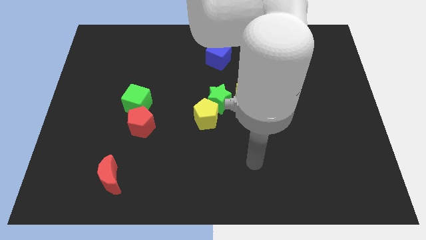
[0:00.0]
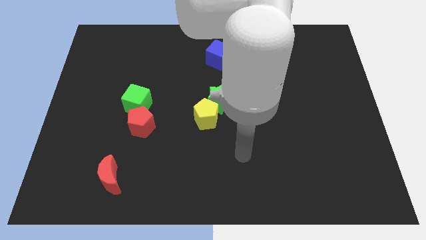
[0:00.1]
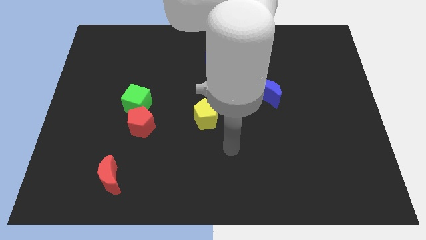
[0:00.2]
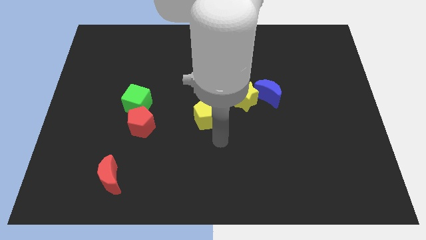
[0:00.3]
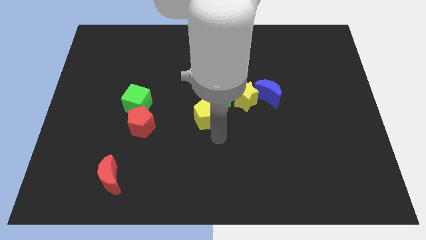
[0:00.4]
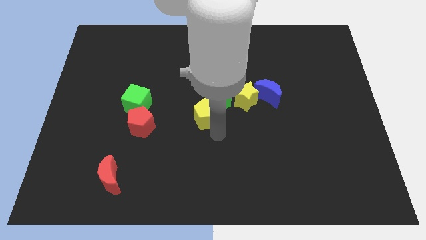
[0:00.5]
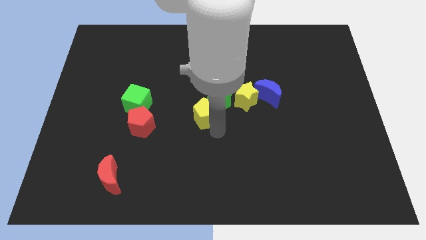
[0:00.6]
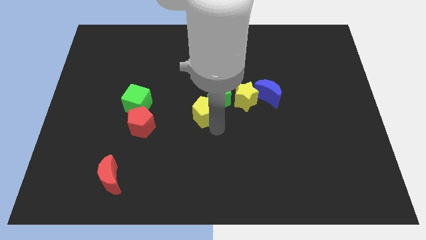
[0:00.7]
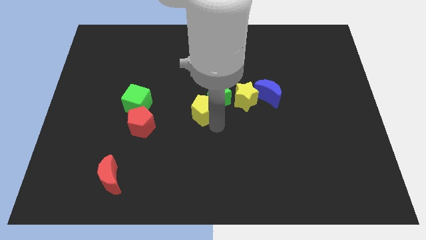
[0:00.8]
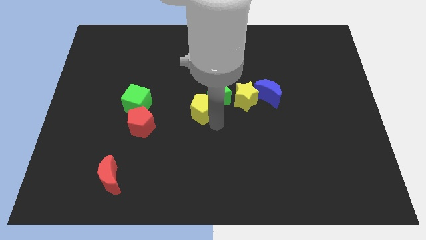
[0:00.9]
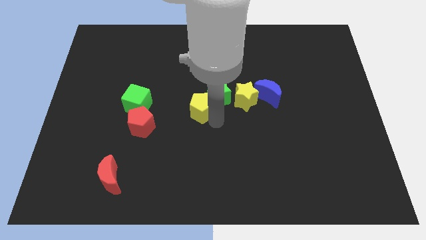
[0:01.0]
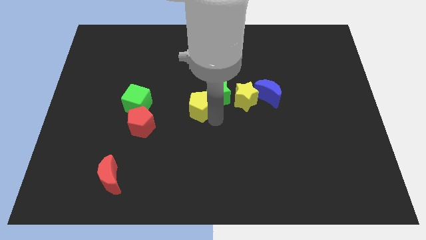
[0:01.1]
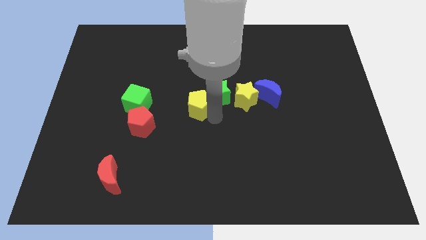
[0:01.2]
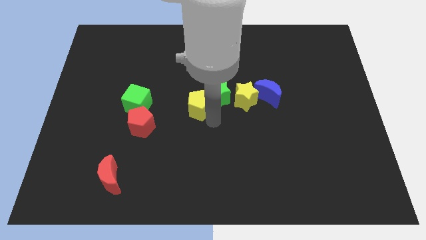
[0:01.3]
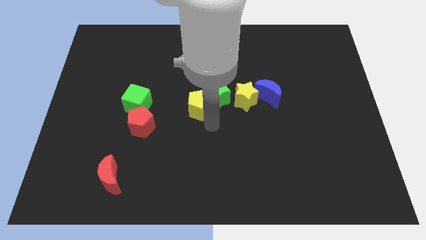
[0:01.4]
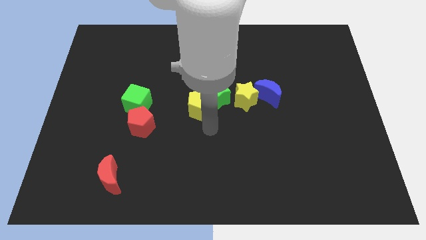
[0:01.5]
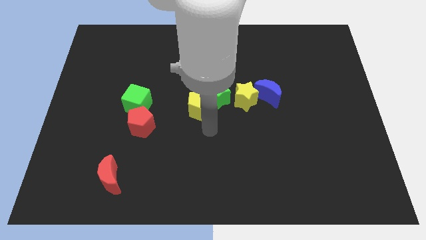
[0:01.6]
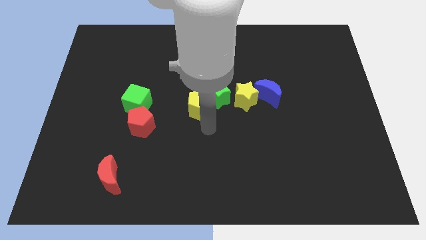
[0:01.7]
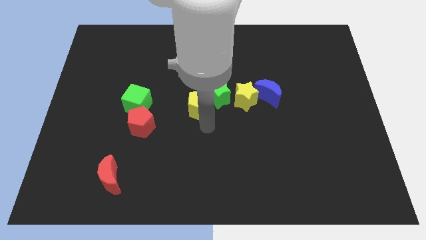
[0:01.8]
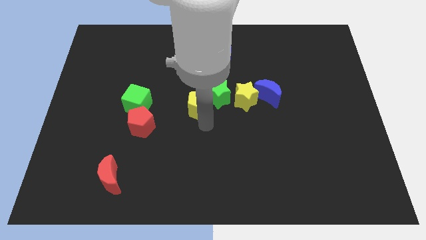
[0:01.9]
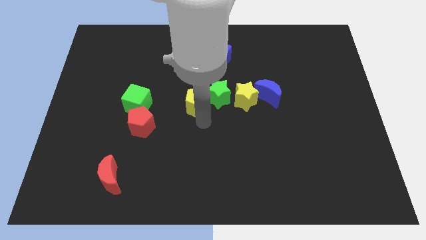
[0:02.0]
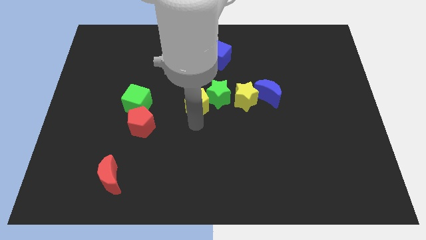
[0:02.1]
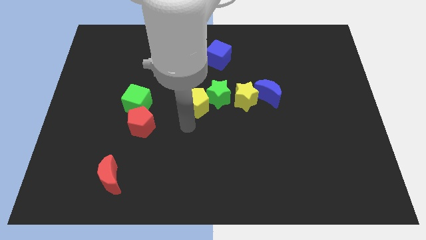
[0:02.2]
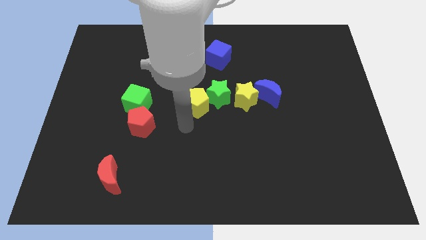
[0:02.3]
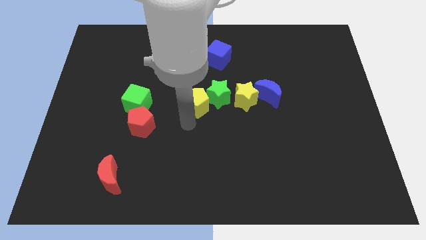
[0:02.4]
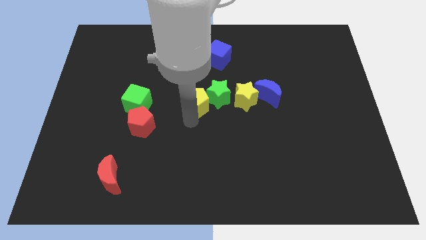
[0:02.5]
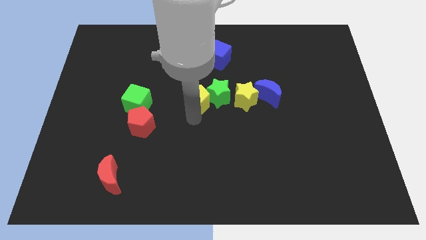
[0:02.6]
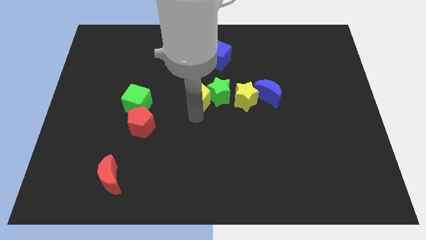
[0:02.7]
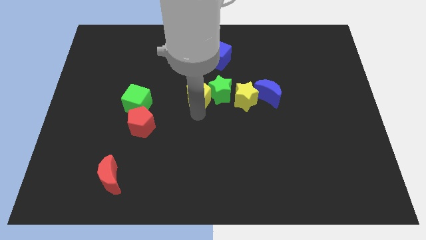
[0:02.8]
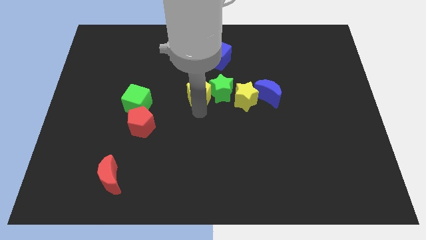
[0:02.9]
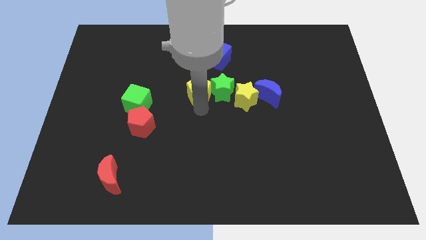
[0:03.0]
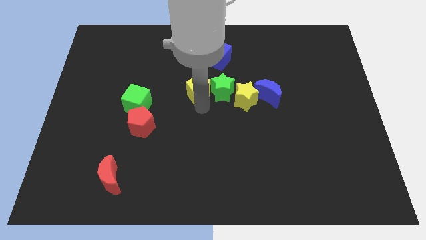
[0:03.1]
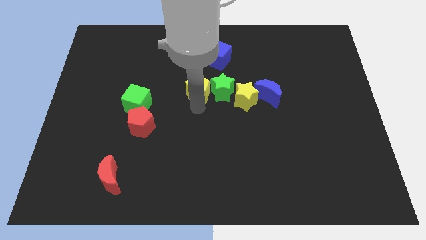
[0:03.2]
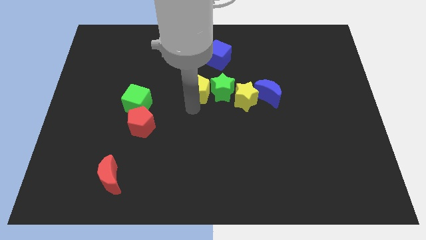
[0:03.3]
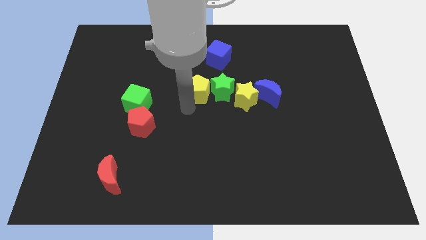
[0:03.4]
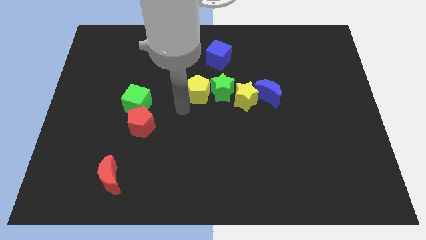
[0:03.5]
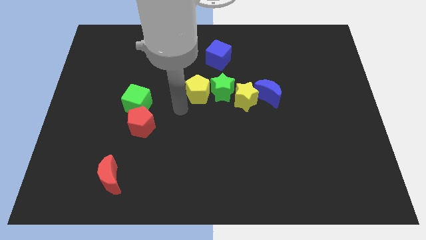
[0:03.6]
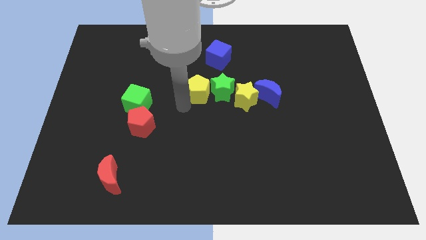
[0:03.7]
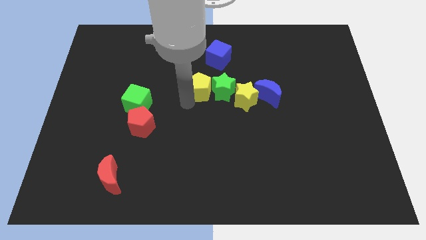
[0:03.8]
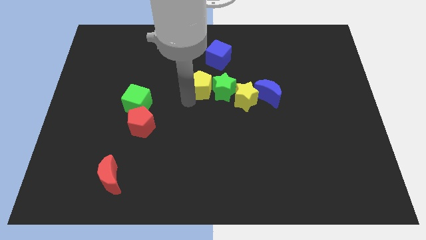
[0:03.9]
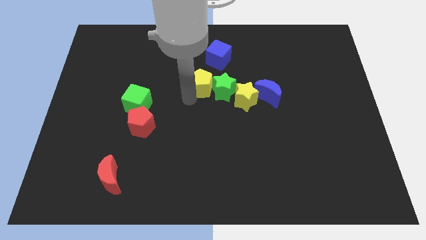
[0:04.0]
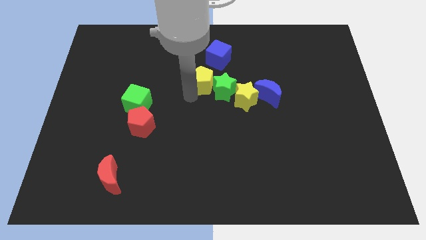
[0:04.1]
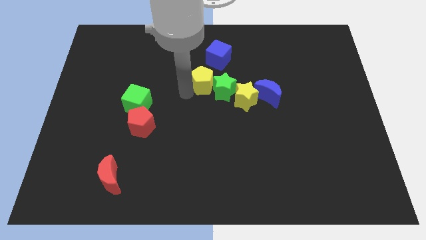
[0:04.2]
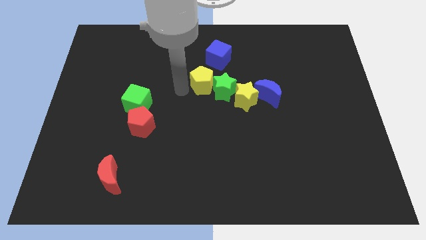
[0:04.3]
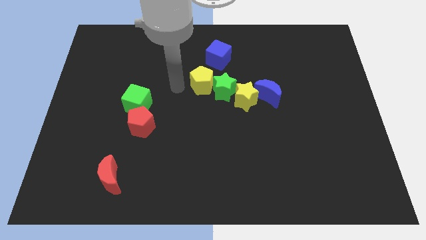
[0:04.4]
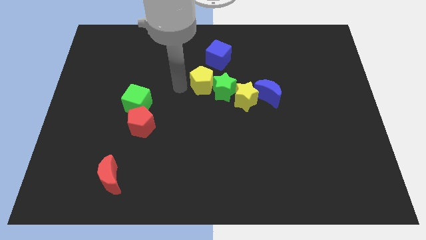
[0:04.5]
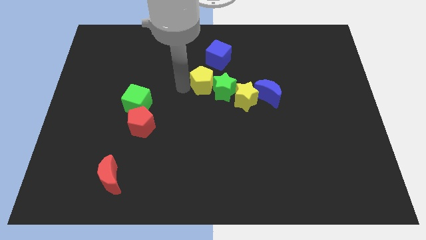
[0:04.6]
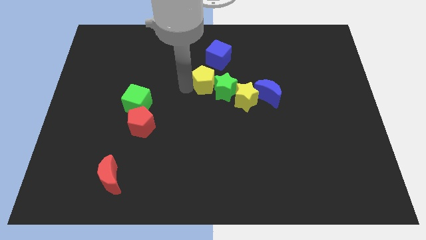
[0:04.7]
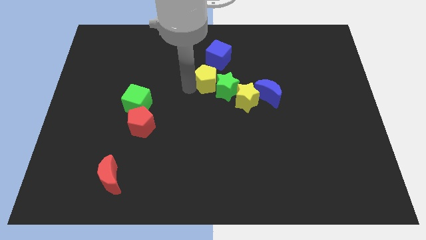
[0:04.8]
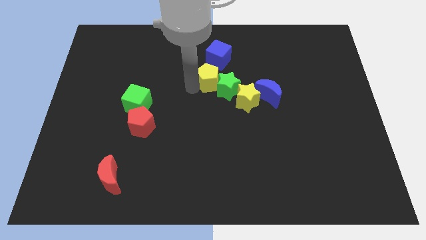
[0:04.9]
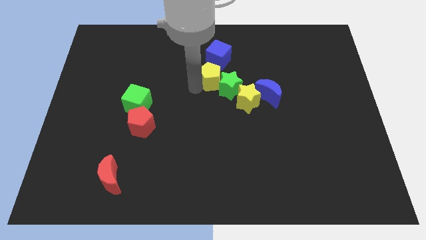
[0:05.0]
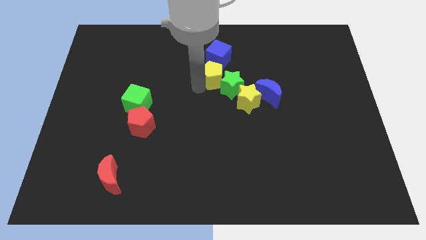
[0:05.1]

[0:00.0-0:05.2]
move the yellow pentagon up and to the right diagonally slightly

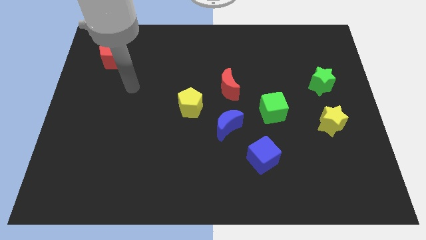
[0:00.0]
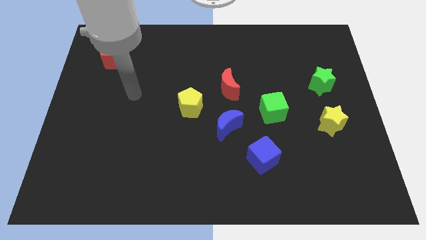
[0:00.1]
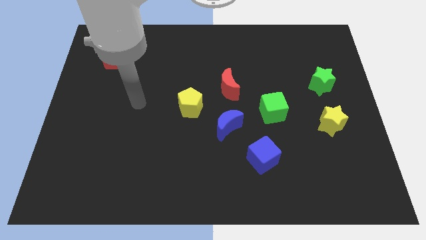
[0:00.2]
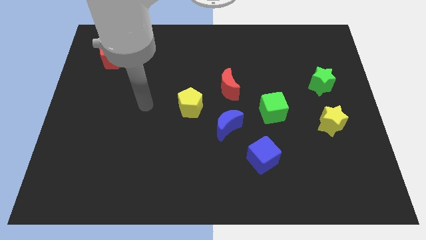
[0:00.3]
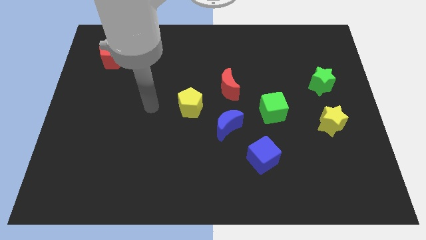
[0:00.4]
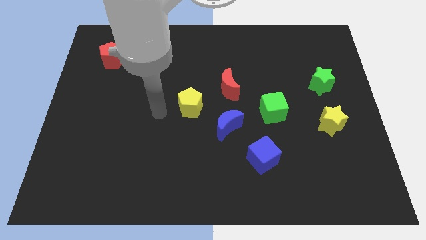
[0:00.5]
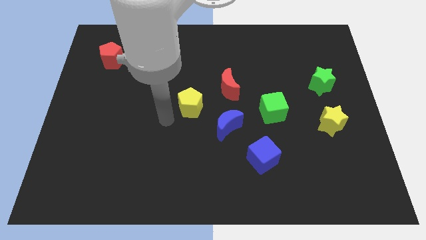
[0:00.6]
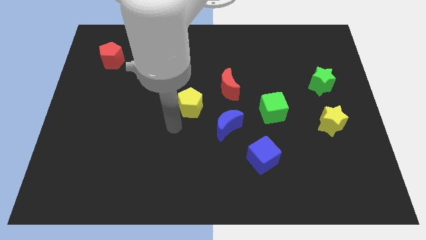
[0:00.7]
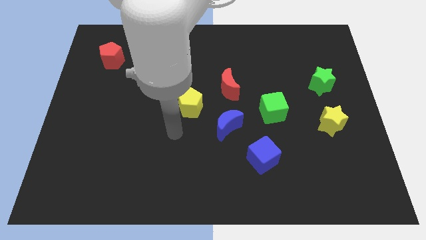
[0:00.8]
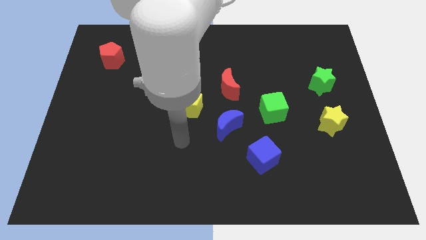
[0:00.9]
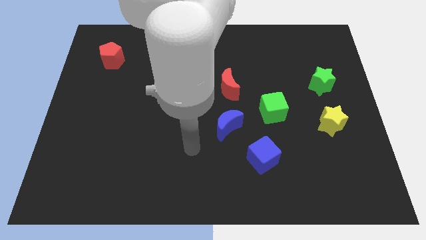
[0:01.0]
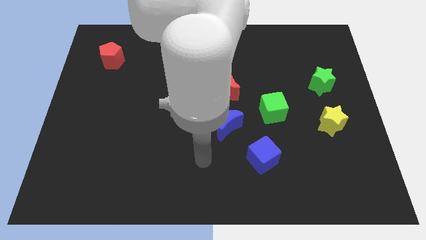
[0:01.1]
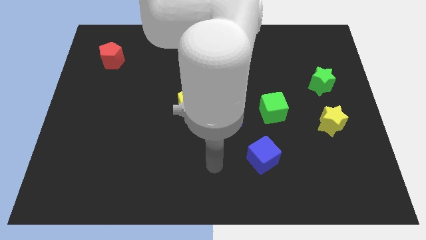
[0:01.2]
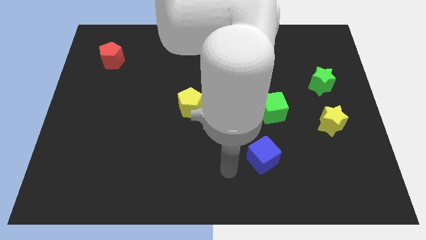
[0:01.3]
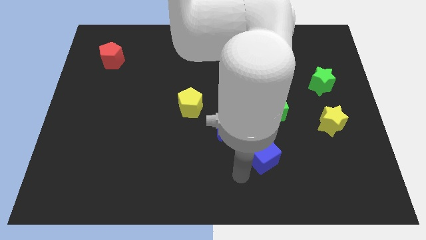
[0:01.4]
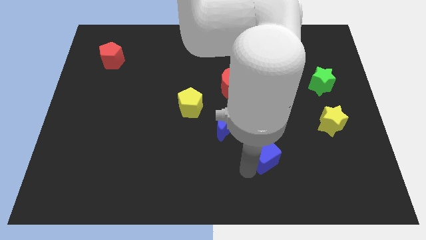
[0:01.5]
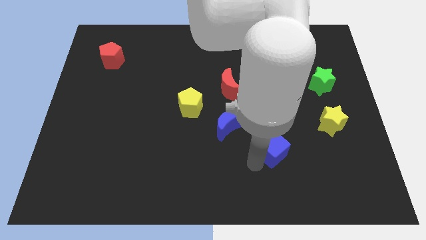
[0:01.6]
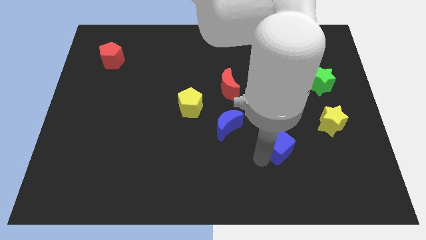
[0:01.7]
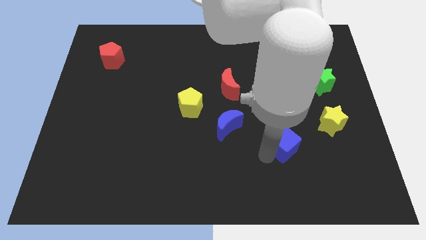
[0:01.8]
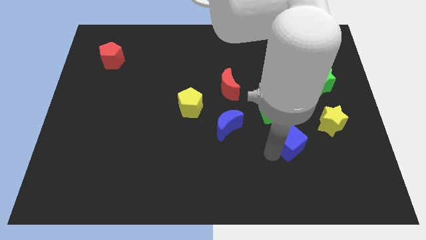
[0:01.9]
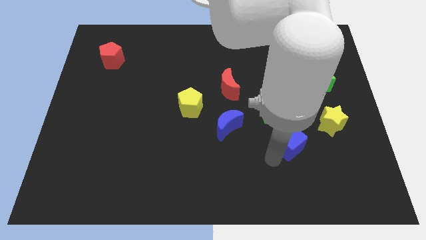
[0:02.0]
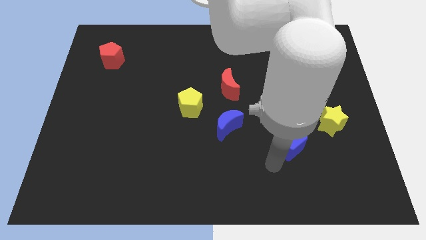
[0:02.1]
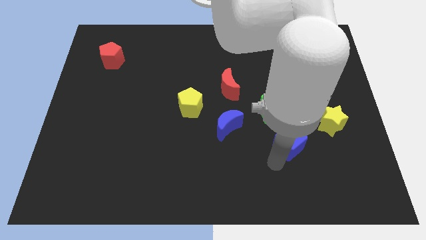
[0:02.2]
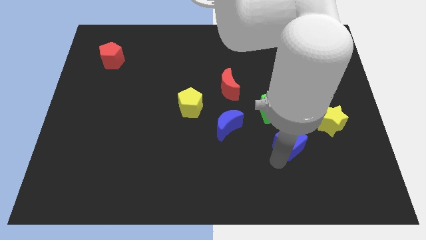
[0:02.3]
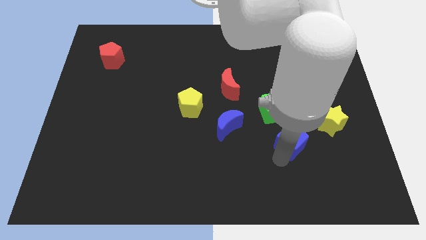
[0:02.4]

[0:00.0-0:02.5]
slightly move the blue cube diagonally upwards and to the right
